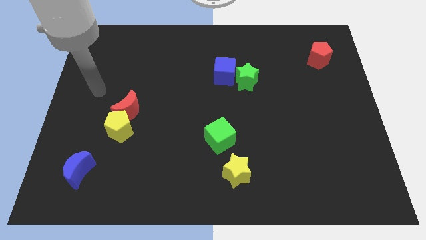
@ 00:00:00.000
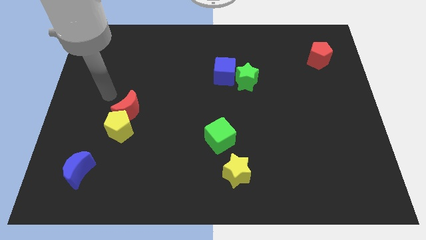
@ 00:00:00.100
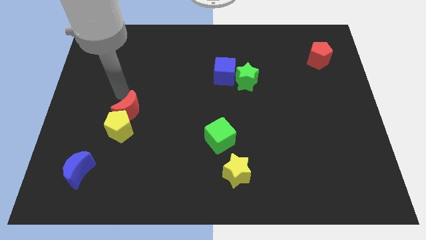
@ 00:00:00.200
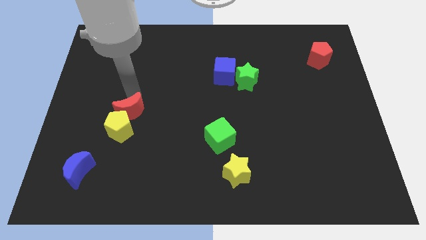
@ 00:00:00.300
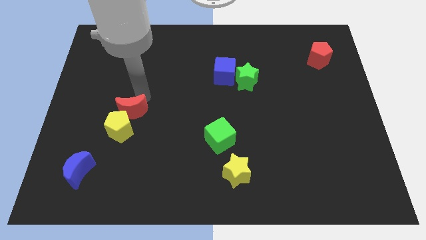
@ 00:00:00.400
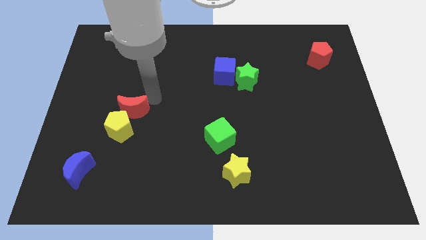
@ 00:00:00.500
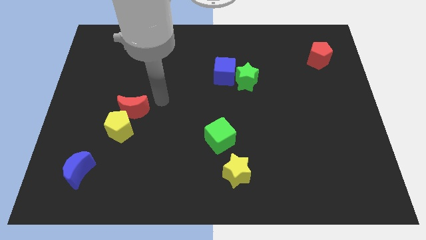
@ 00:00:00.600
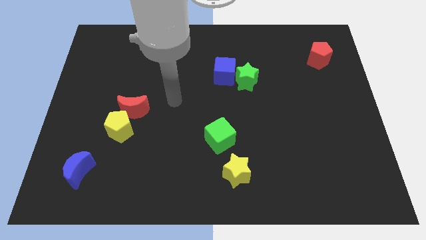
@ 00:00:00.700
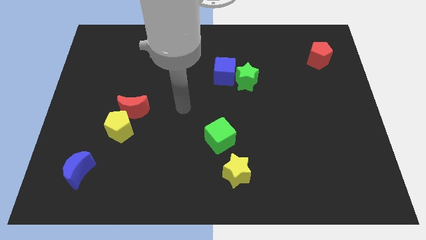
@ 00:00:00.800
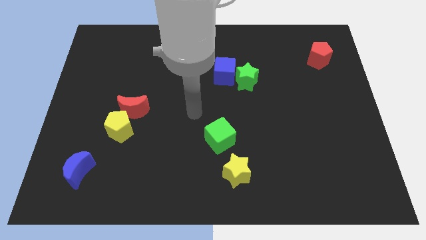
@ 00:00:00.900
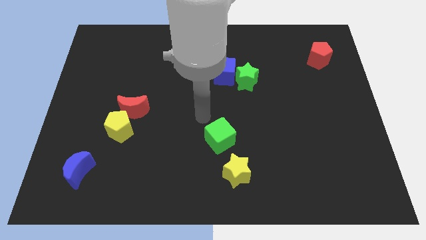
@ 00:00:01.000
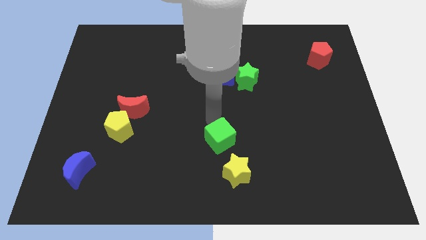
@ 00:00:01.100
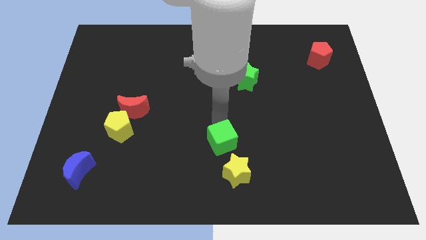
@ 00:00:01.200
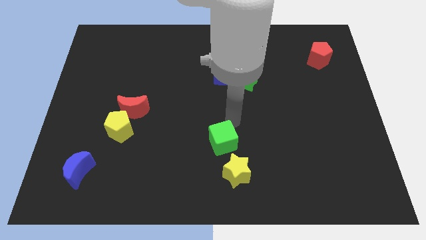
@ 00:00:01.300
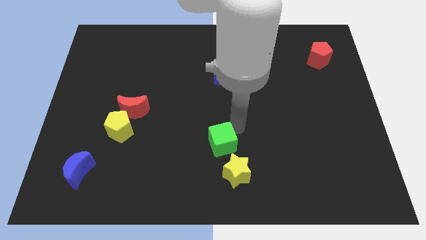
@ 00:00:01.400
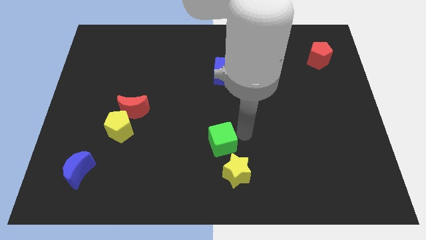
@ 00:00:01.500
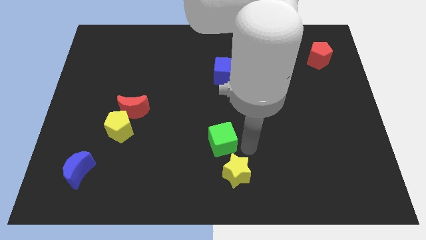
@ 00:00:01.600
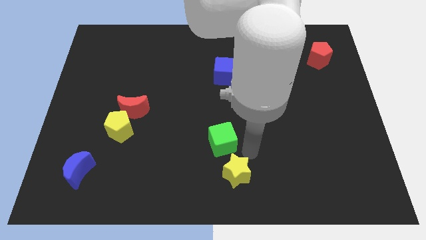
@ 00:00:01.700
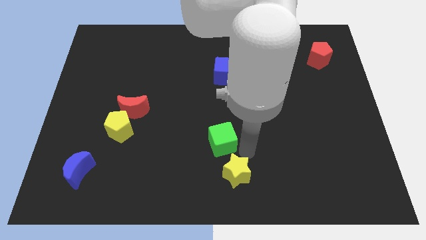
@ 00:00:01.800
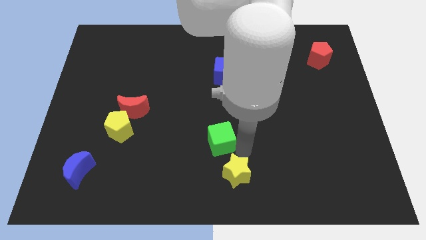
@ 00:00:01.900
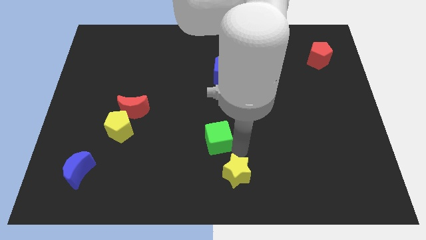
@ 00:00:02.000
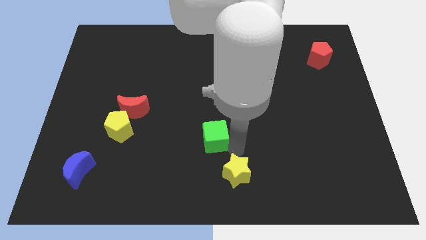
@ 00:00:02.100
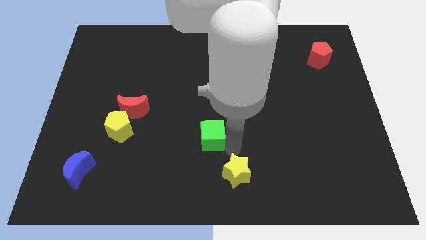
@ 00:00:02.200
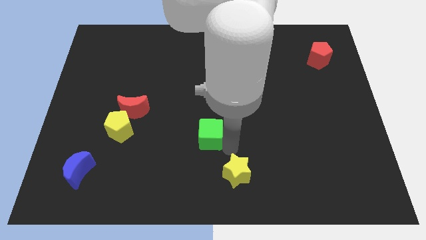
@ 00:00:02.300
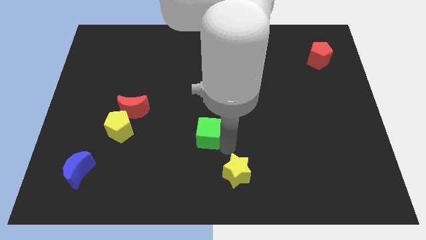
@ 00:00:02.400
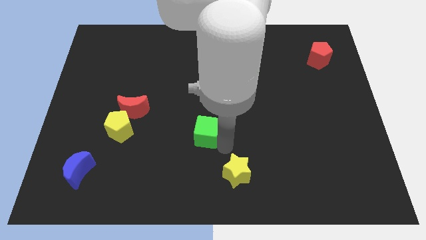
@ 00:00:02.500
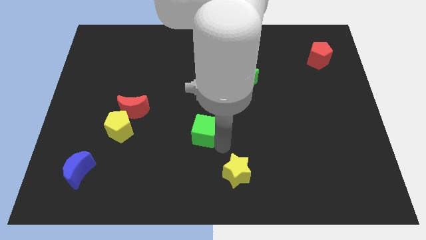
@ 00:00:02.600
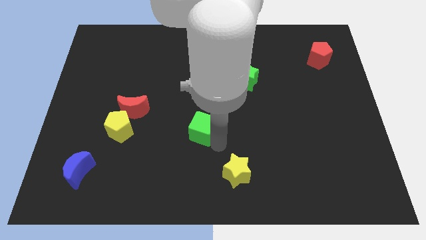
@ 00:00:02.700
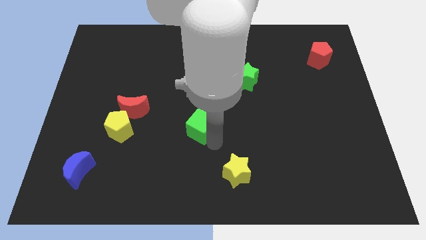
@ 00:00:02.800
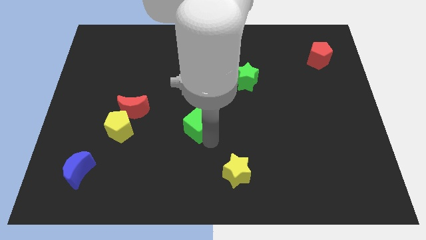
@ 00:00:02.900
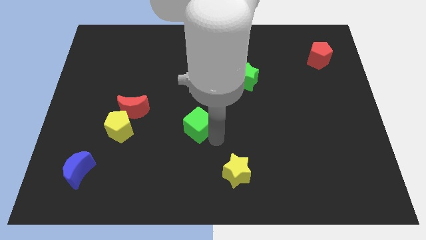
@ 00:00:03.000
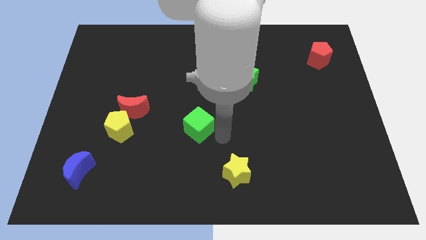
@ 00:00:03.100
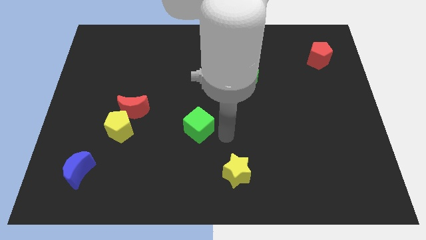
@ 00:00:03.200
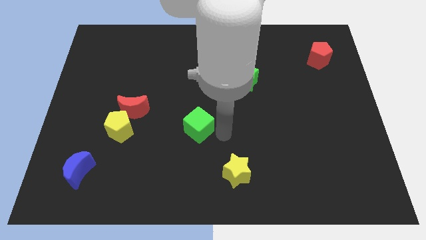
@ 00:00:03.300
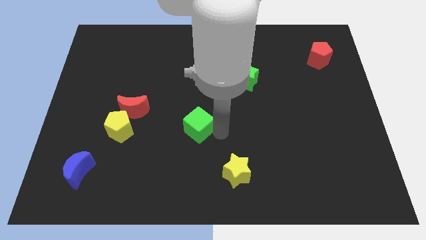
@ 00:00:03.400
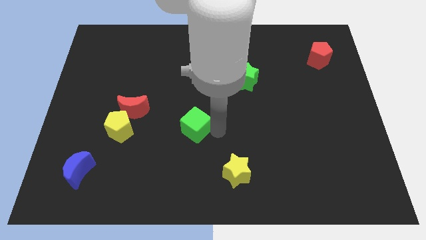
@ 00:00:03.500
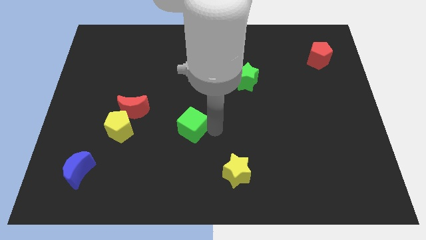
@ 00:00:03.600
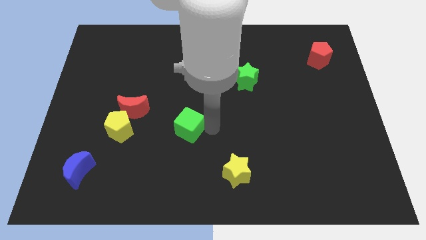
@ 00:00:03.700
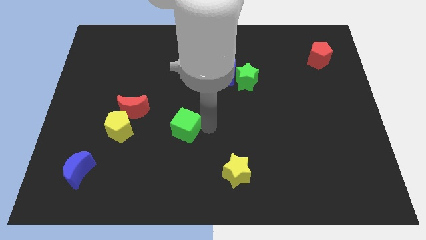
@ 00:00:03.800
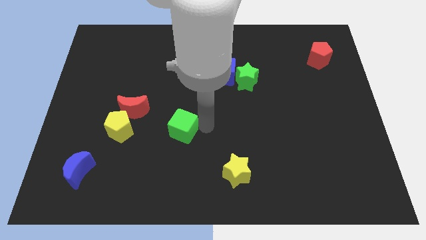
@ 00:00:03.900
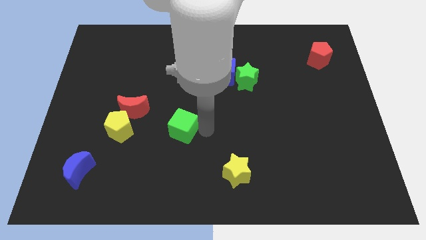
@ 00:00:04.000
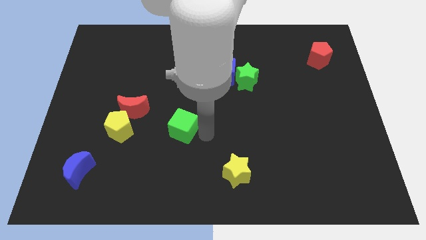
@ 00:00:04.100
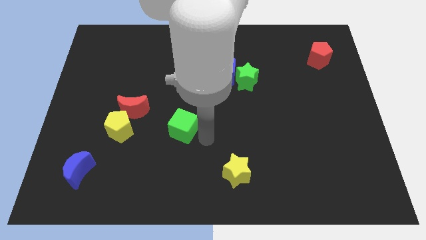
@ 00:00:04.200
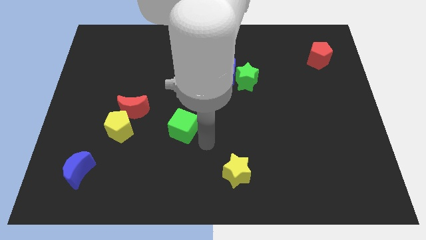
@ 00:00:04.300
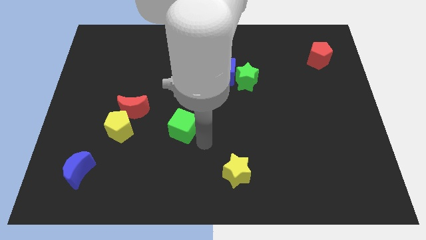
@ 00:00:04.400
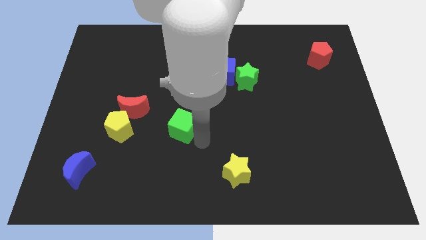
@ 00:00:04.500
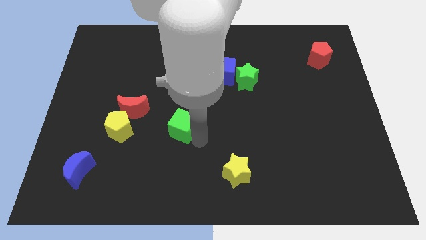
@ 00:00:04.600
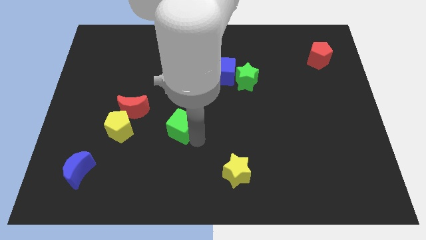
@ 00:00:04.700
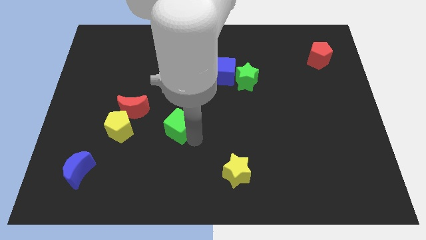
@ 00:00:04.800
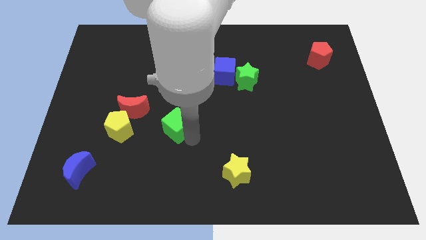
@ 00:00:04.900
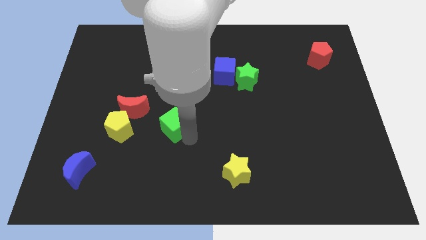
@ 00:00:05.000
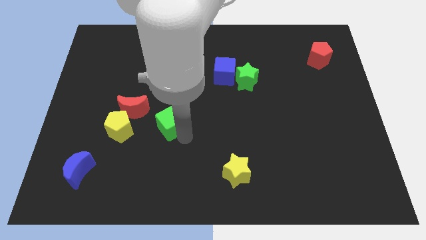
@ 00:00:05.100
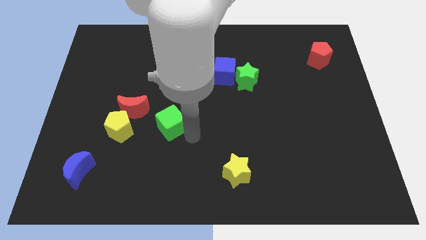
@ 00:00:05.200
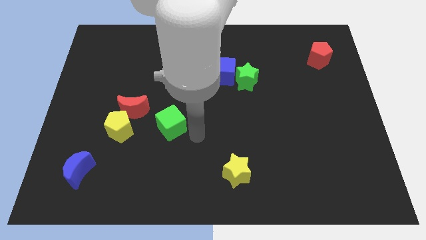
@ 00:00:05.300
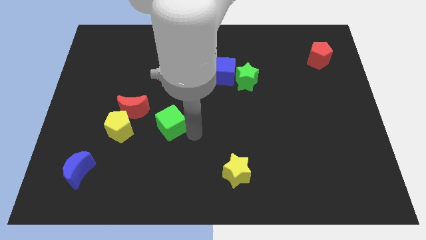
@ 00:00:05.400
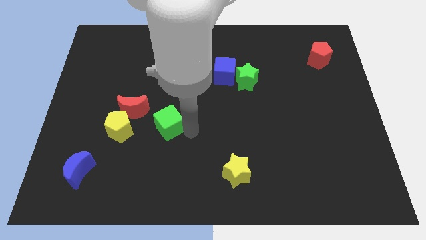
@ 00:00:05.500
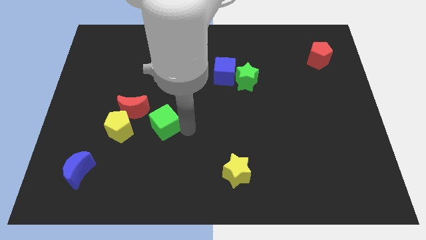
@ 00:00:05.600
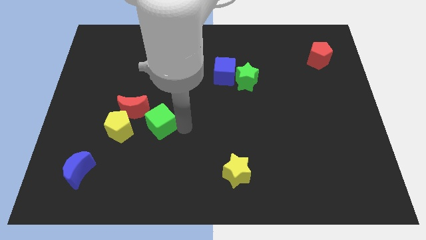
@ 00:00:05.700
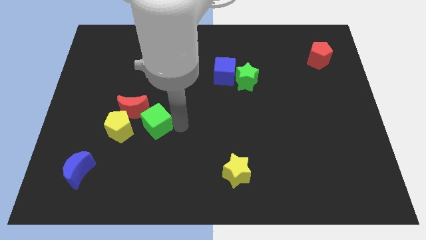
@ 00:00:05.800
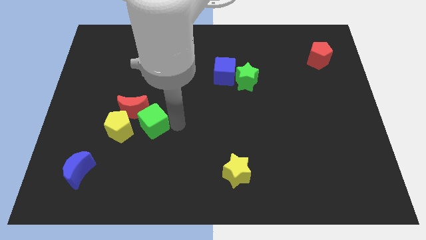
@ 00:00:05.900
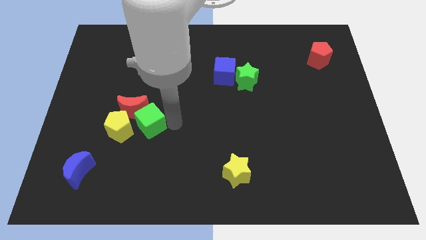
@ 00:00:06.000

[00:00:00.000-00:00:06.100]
push the green cube next to the red moon
